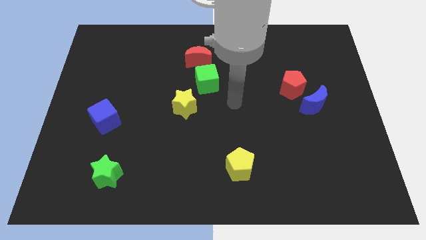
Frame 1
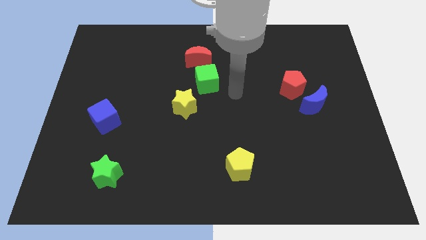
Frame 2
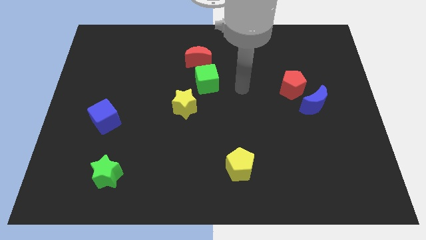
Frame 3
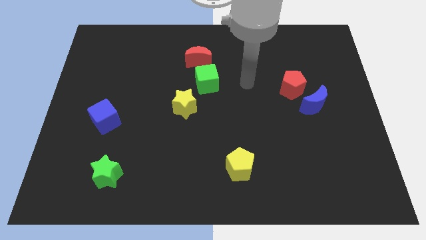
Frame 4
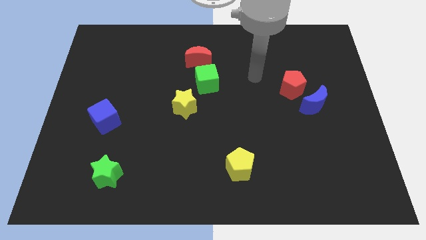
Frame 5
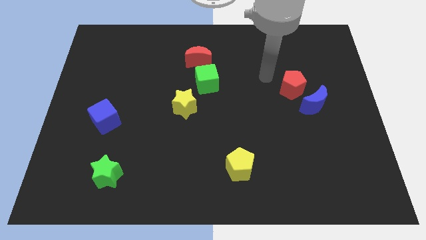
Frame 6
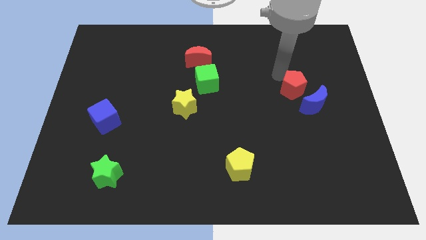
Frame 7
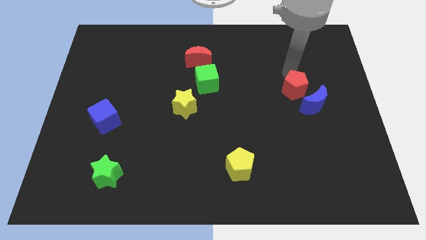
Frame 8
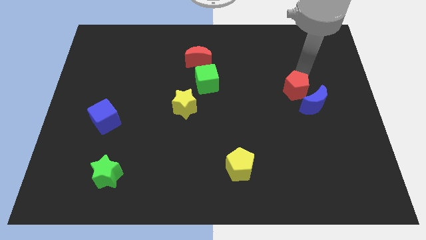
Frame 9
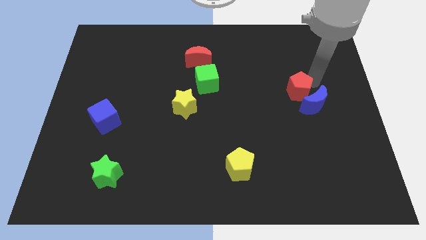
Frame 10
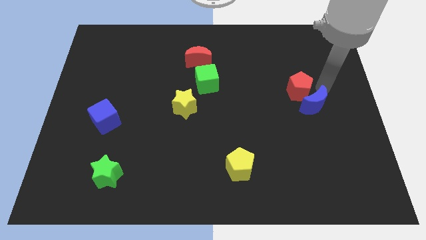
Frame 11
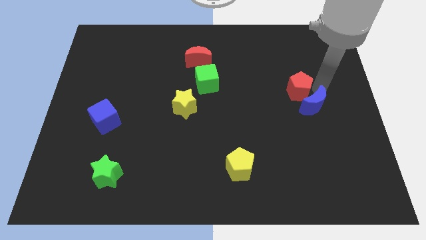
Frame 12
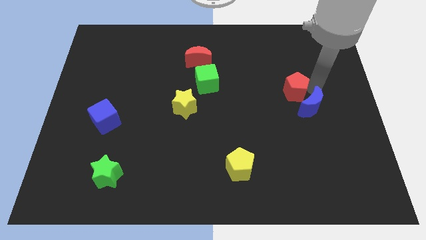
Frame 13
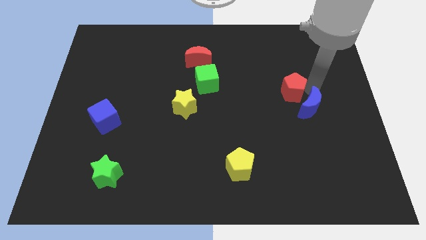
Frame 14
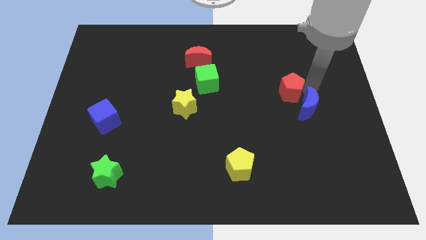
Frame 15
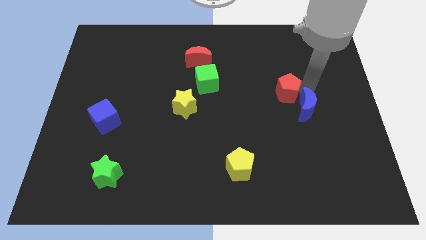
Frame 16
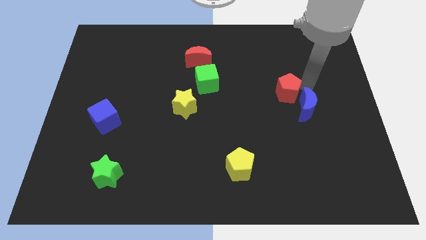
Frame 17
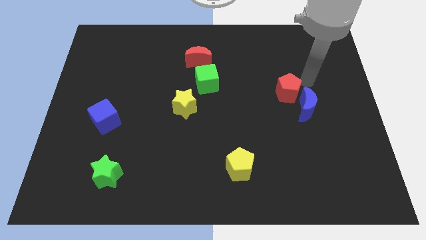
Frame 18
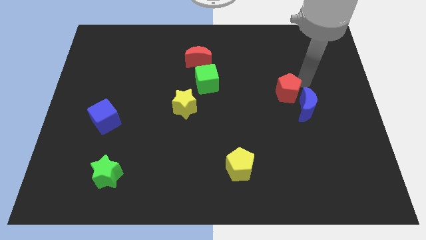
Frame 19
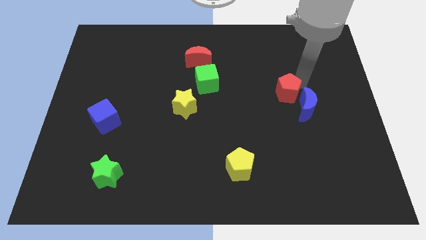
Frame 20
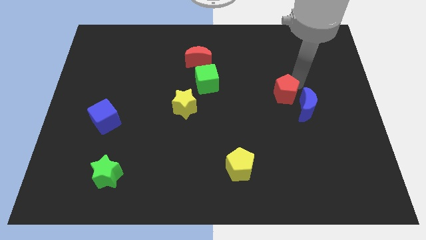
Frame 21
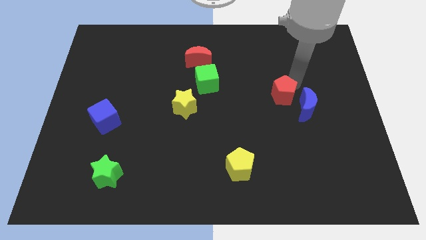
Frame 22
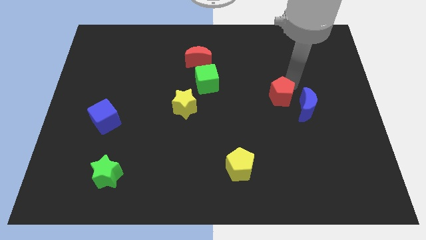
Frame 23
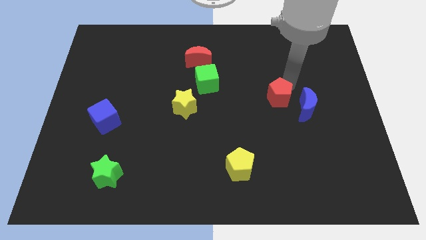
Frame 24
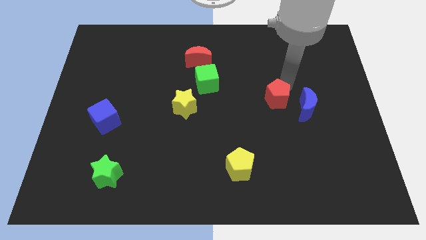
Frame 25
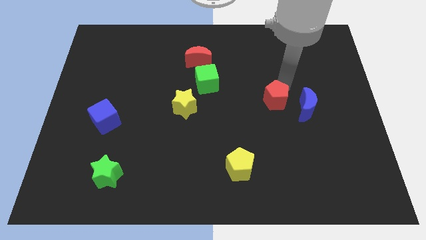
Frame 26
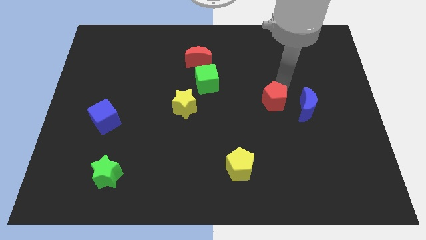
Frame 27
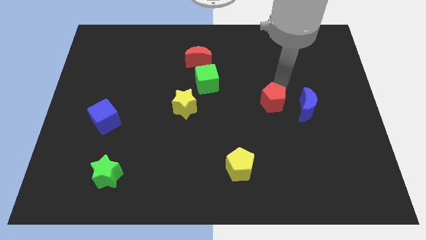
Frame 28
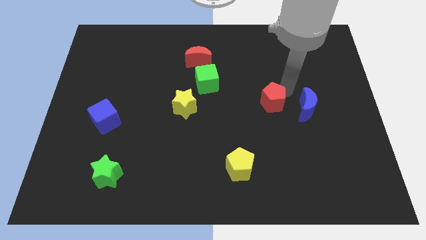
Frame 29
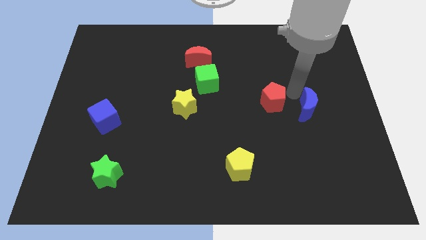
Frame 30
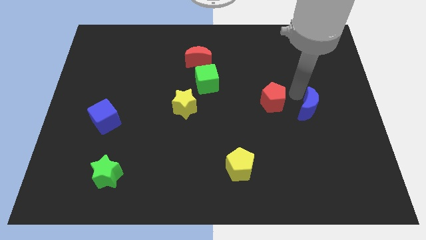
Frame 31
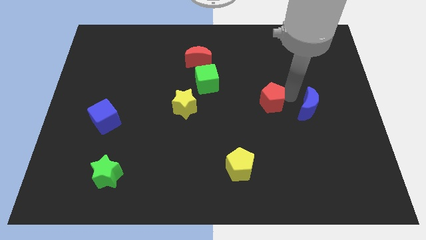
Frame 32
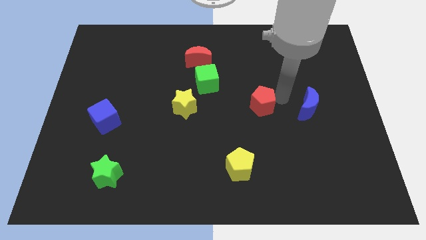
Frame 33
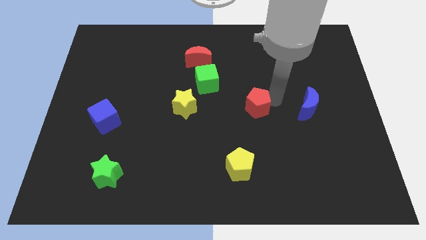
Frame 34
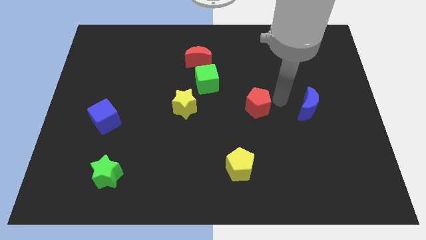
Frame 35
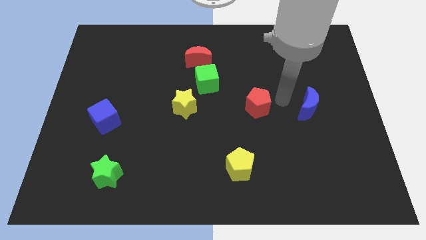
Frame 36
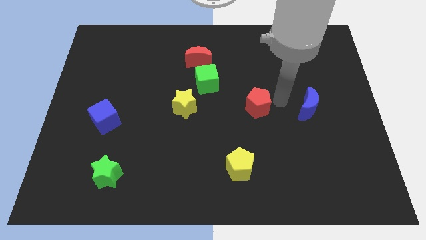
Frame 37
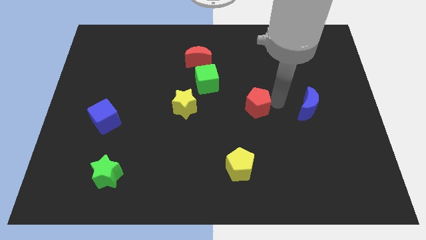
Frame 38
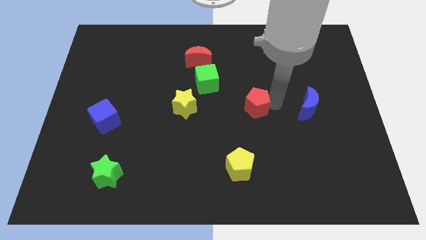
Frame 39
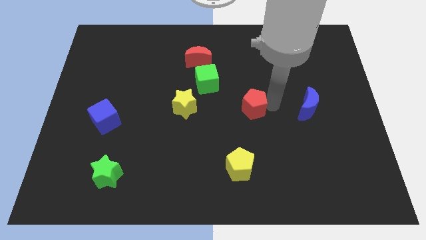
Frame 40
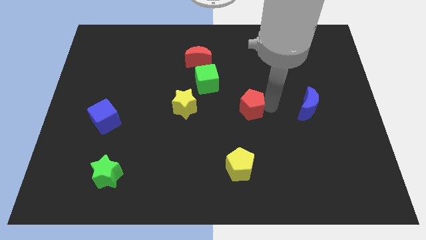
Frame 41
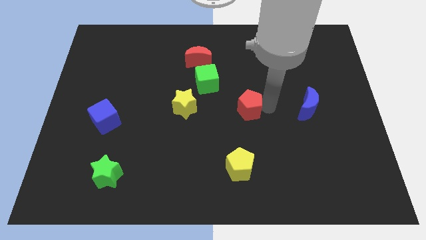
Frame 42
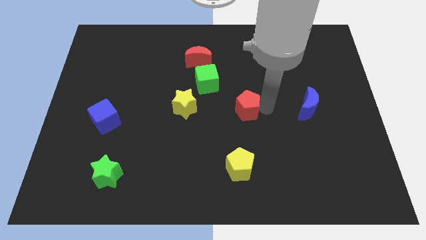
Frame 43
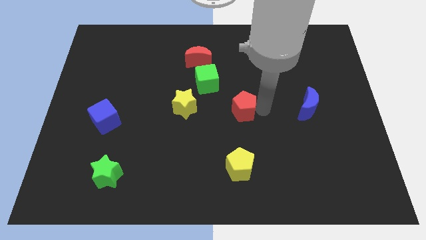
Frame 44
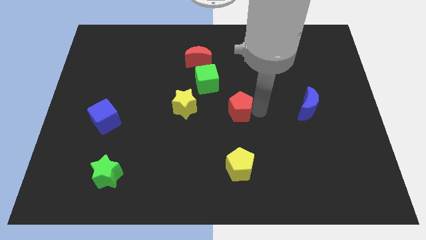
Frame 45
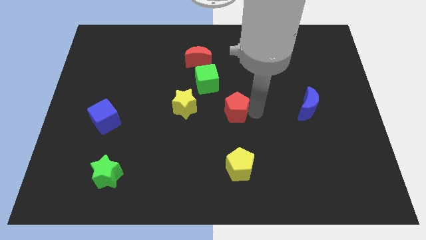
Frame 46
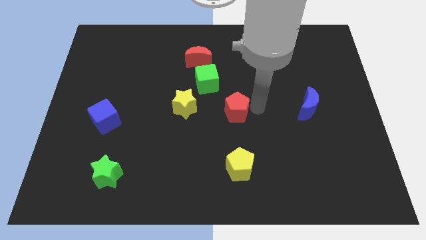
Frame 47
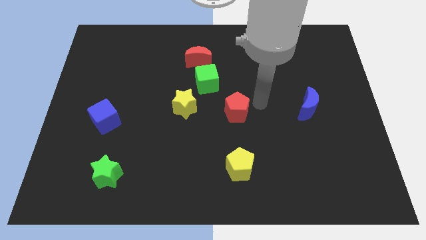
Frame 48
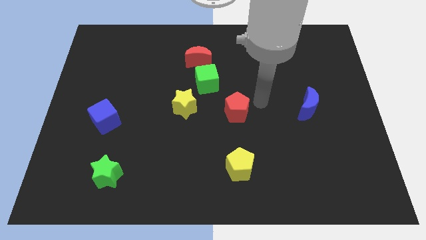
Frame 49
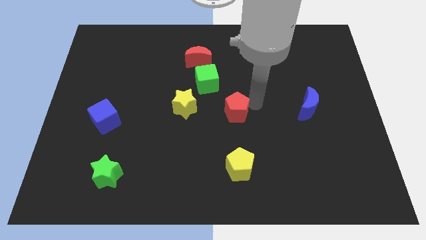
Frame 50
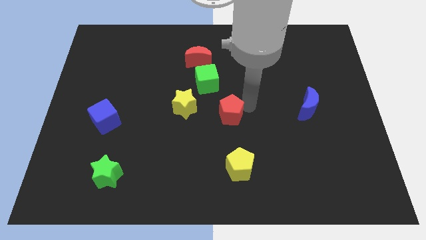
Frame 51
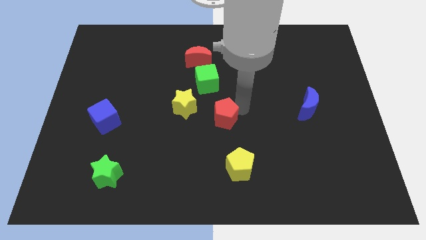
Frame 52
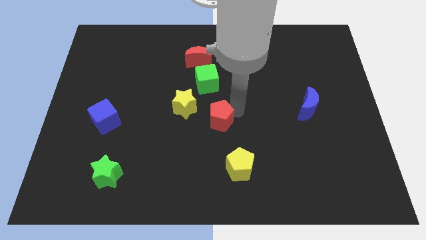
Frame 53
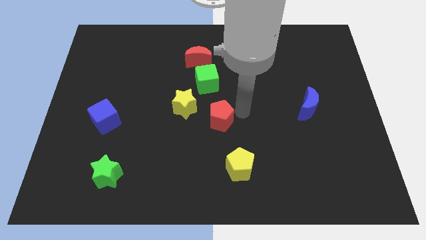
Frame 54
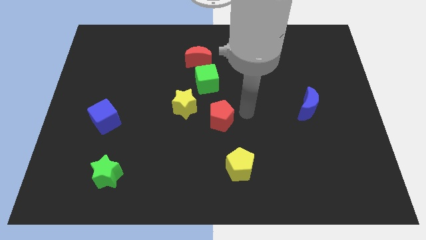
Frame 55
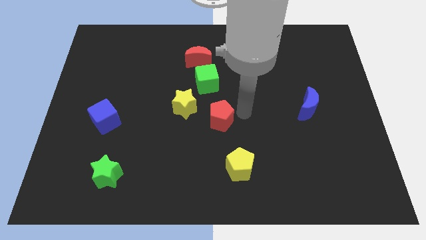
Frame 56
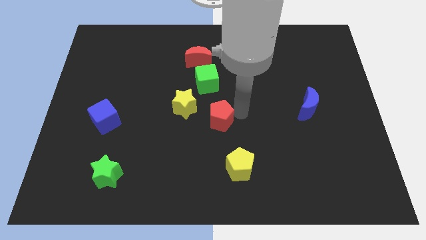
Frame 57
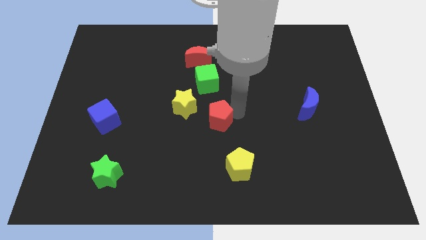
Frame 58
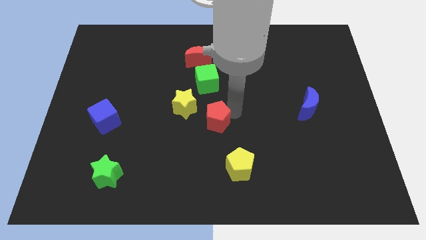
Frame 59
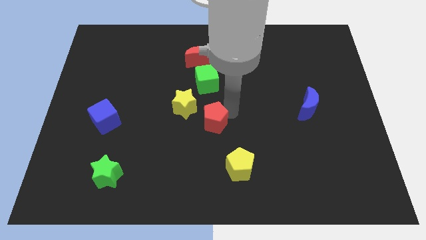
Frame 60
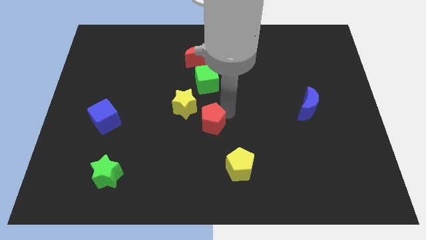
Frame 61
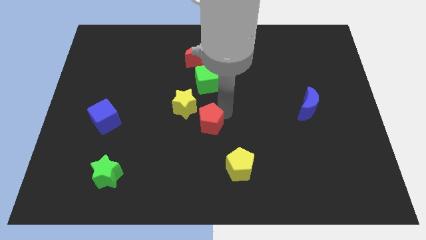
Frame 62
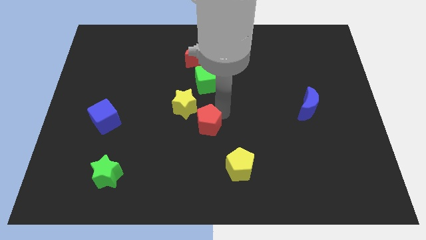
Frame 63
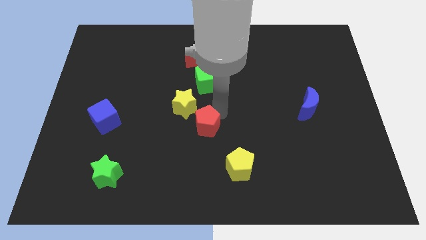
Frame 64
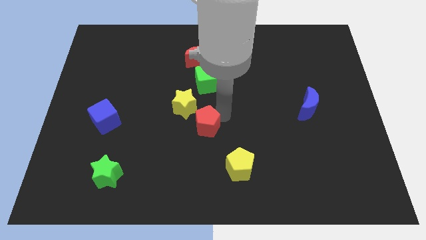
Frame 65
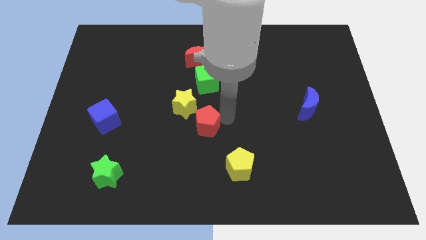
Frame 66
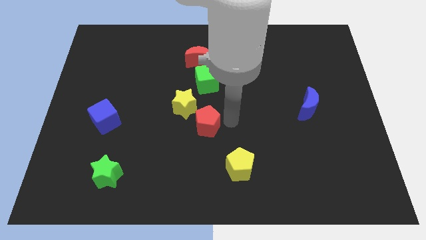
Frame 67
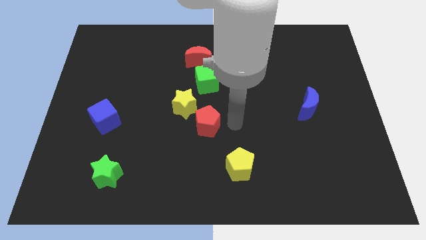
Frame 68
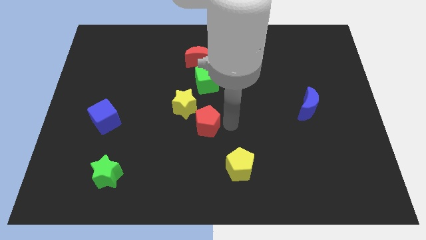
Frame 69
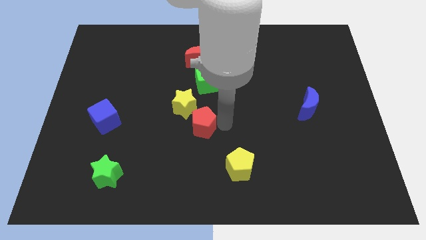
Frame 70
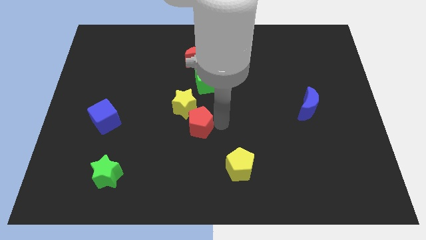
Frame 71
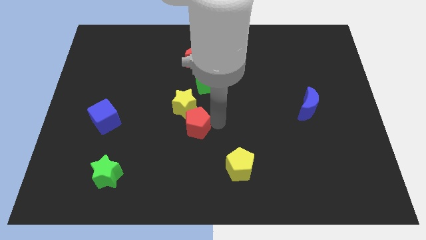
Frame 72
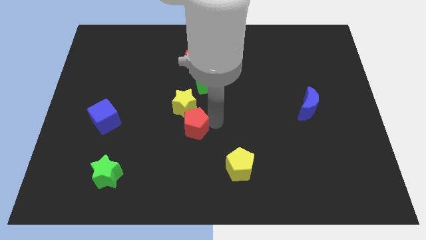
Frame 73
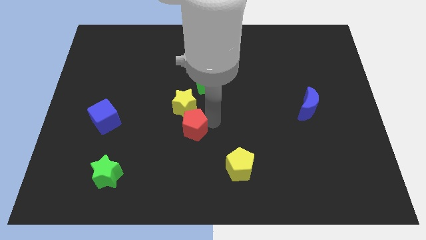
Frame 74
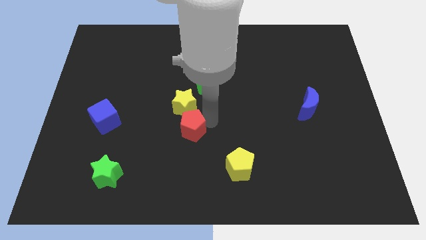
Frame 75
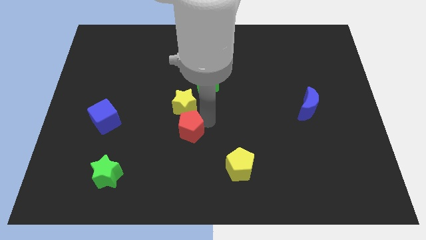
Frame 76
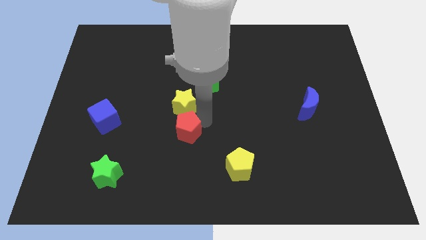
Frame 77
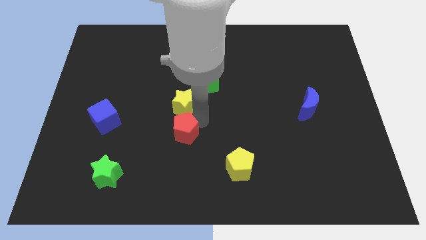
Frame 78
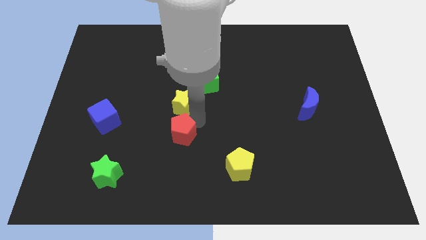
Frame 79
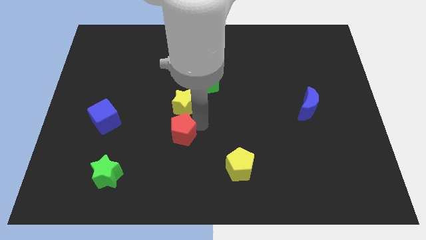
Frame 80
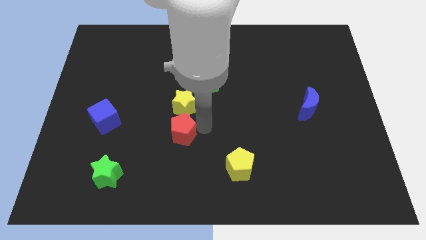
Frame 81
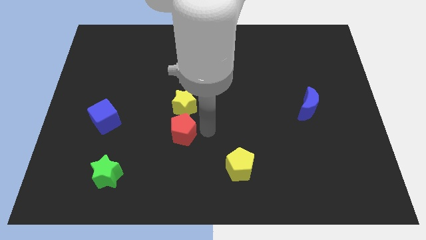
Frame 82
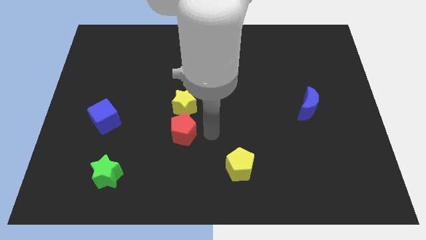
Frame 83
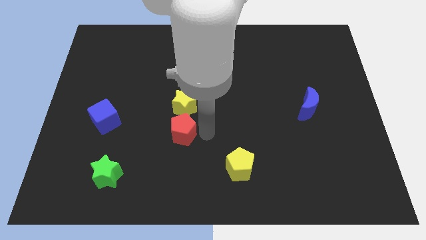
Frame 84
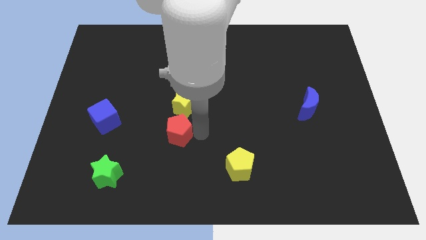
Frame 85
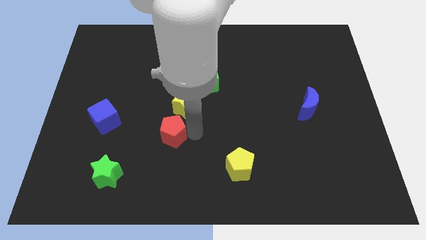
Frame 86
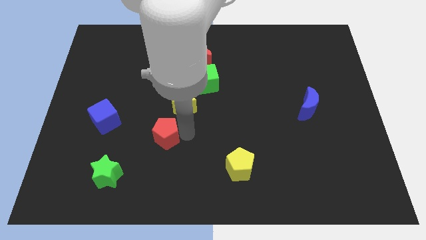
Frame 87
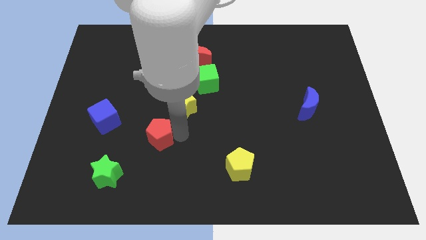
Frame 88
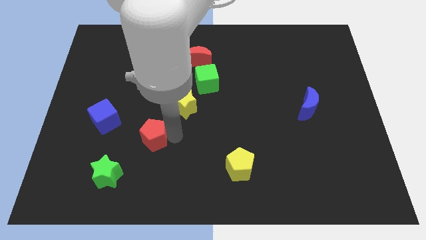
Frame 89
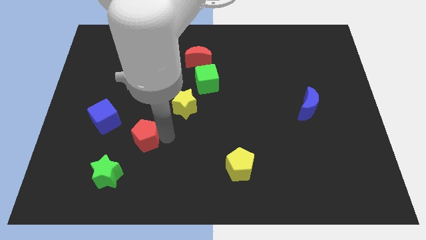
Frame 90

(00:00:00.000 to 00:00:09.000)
put the red pentagon diagonally down and to the right of the blue cube
